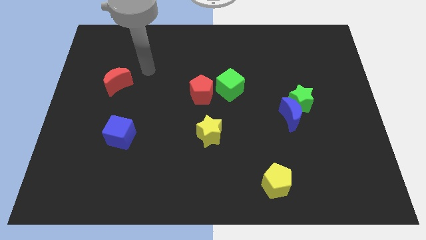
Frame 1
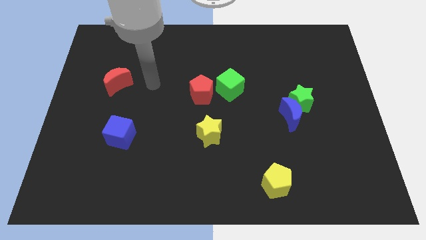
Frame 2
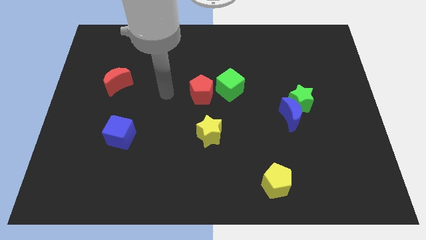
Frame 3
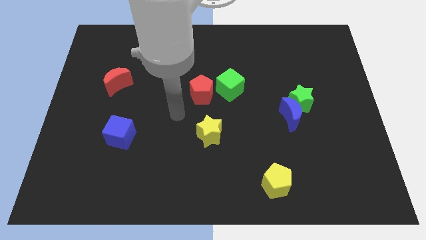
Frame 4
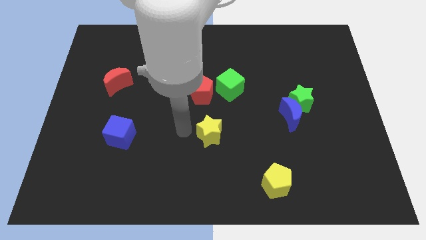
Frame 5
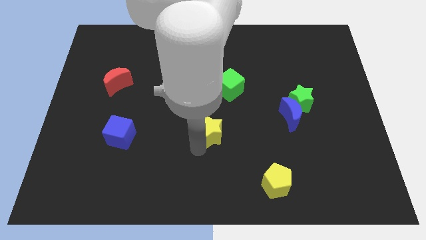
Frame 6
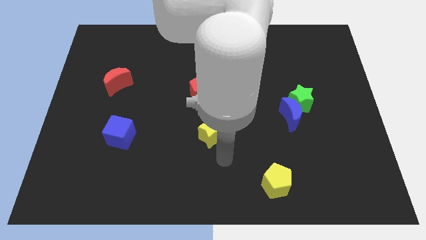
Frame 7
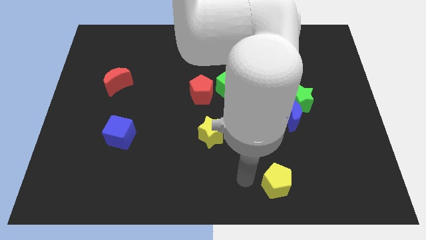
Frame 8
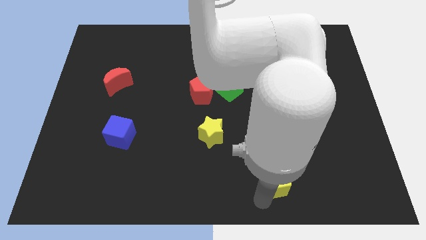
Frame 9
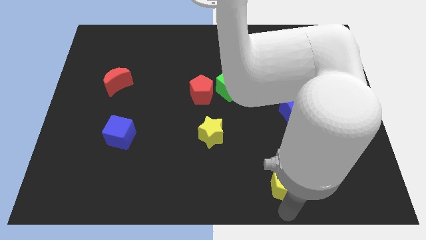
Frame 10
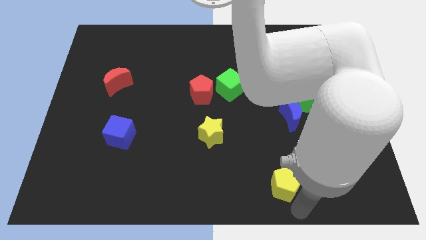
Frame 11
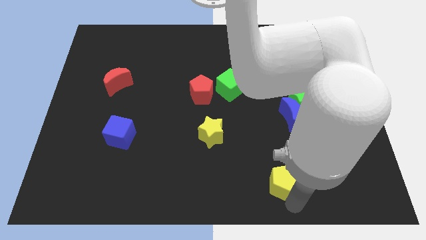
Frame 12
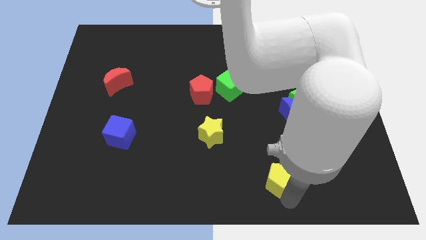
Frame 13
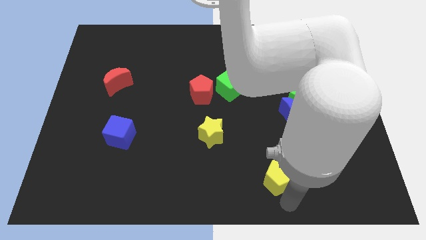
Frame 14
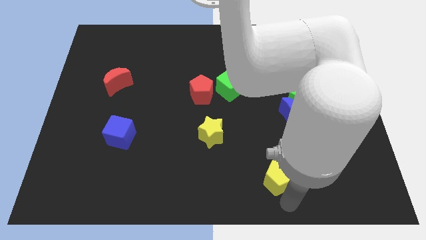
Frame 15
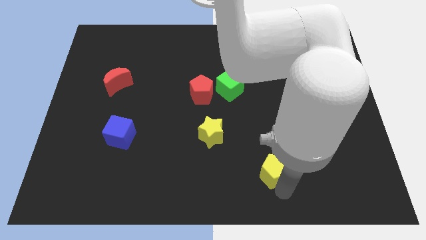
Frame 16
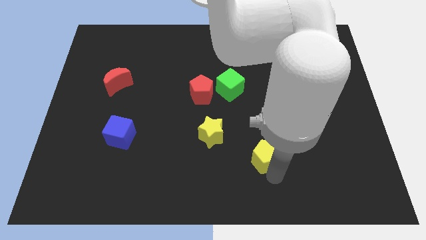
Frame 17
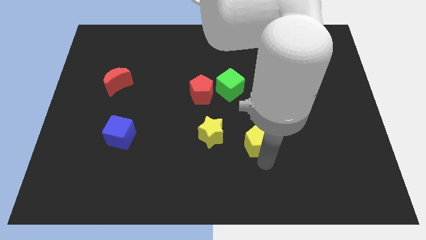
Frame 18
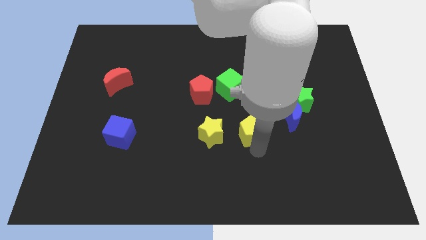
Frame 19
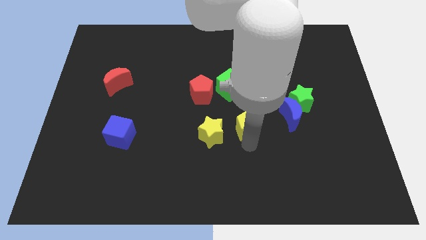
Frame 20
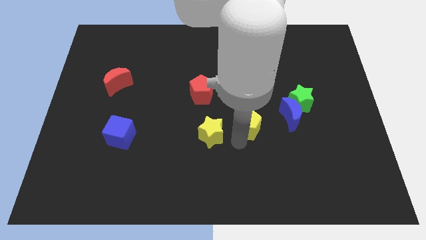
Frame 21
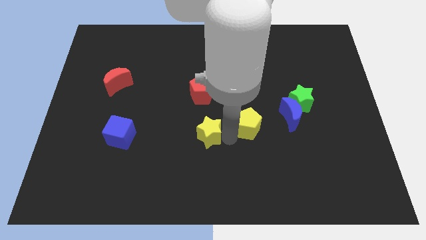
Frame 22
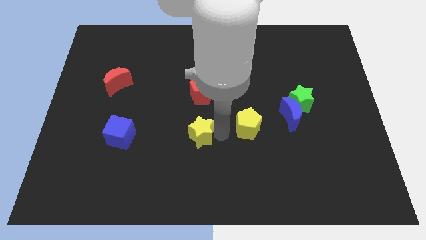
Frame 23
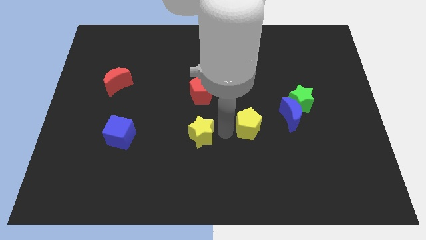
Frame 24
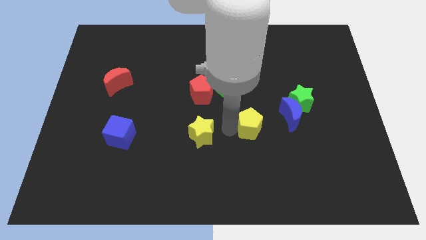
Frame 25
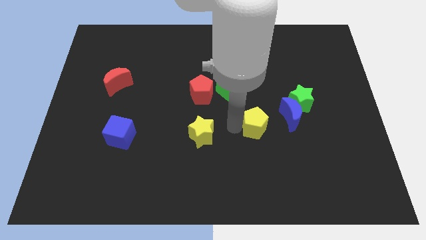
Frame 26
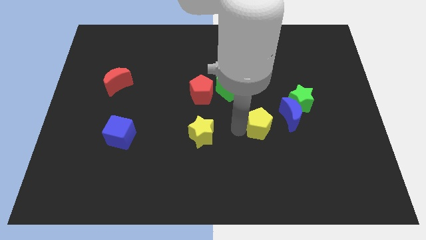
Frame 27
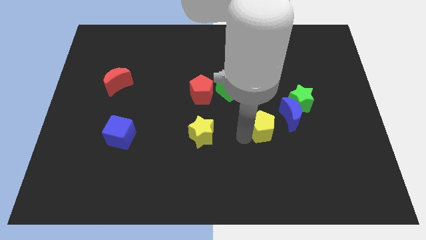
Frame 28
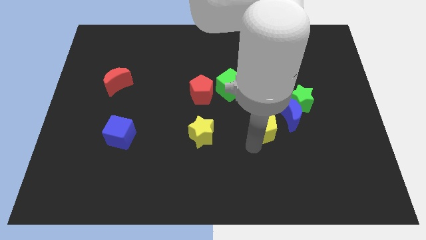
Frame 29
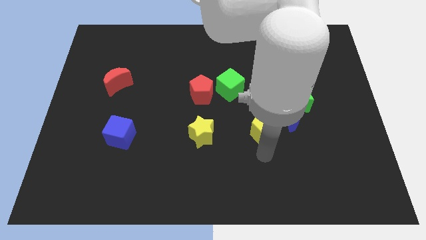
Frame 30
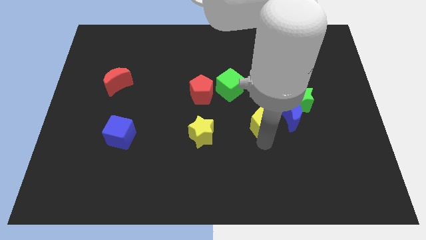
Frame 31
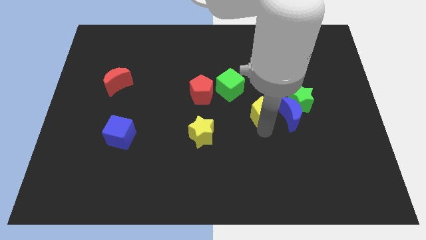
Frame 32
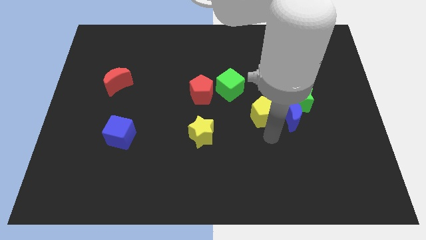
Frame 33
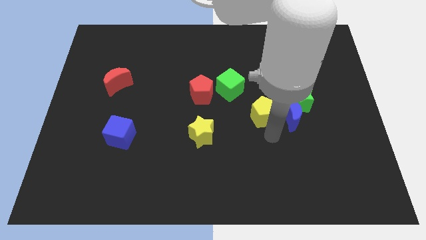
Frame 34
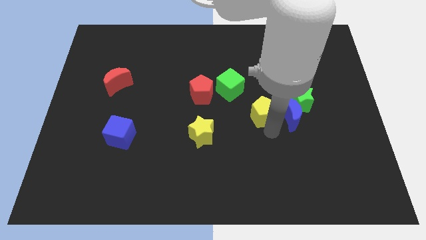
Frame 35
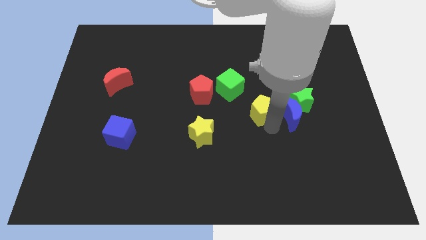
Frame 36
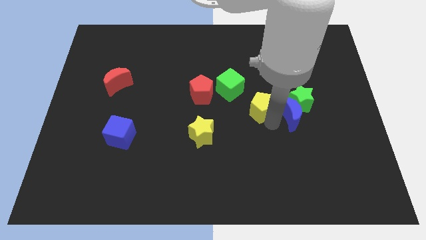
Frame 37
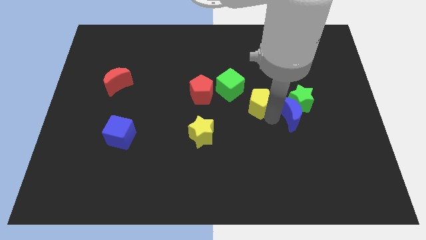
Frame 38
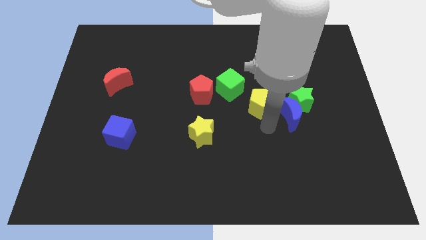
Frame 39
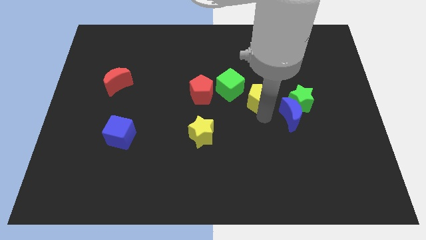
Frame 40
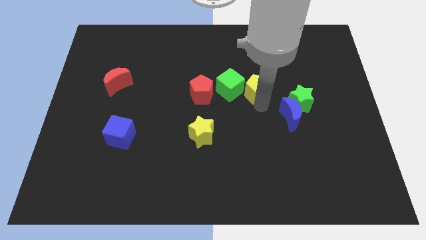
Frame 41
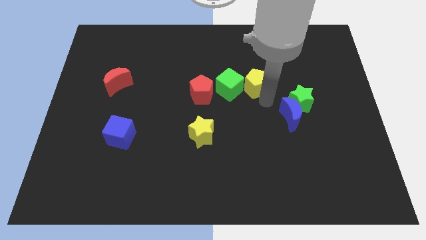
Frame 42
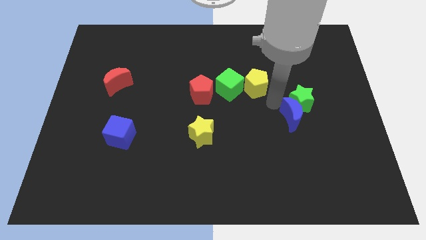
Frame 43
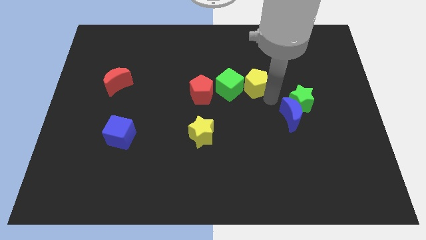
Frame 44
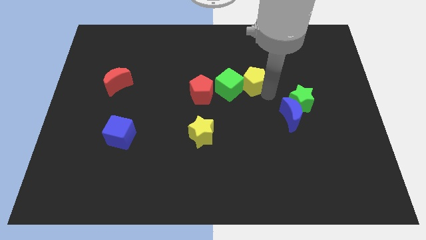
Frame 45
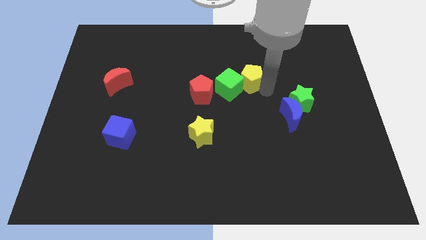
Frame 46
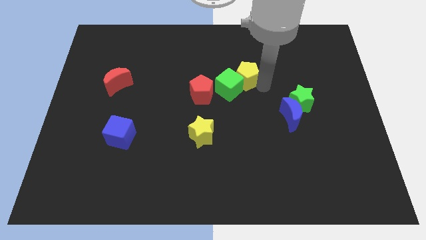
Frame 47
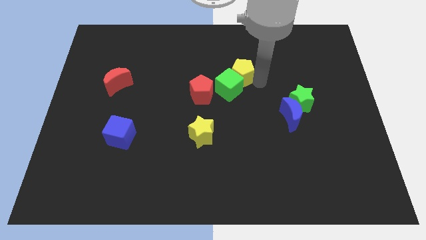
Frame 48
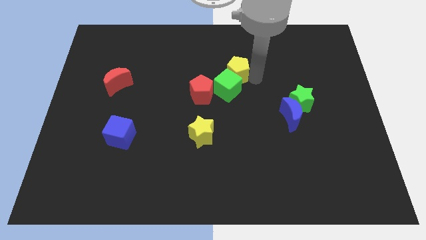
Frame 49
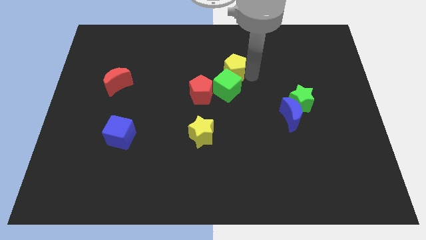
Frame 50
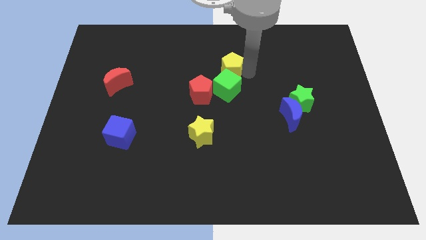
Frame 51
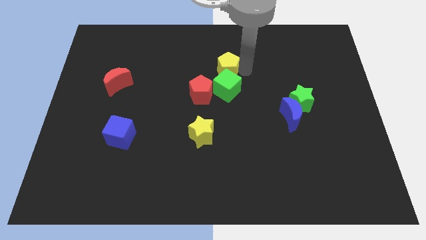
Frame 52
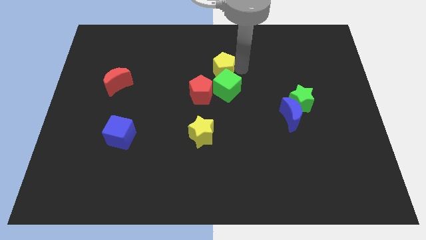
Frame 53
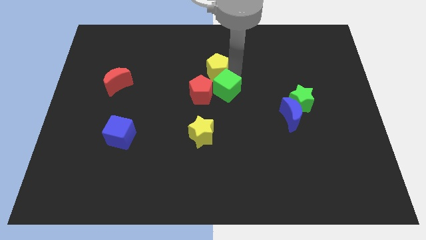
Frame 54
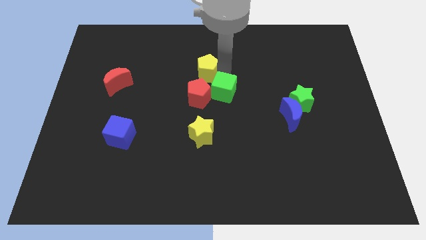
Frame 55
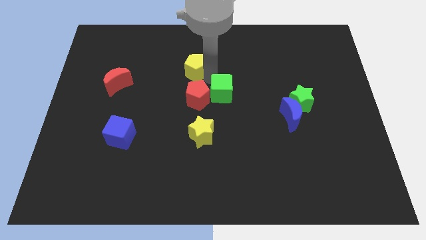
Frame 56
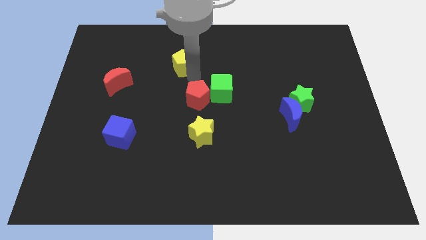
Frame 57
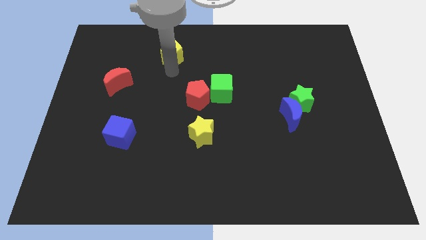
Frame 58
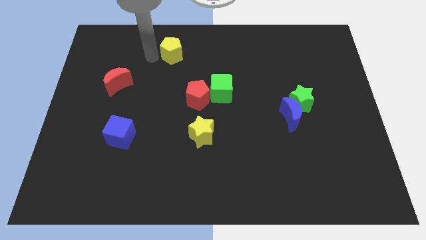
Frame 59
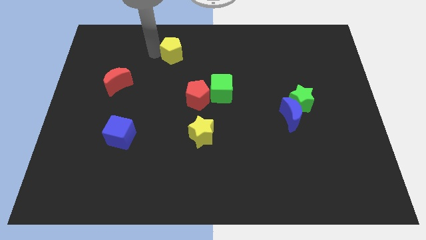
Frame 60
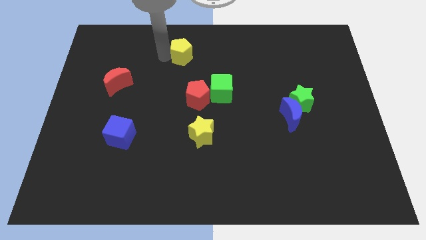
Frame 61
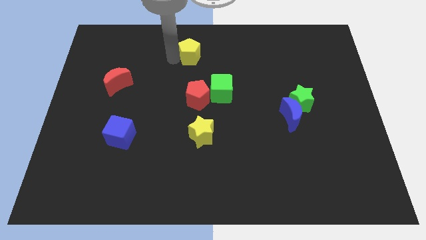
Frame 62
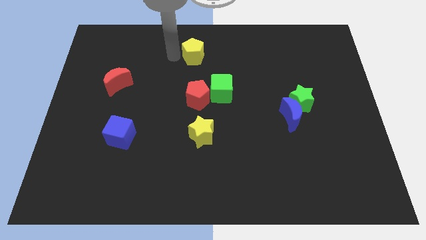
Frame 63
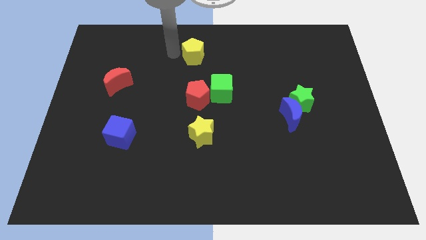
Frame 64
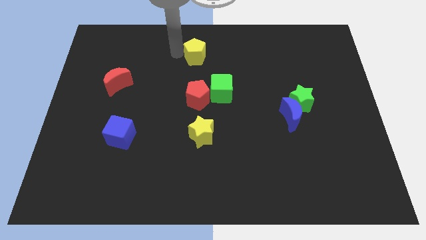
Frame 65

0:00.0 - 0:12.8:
slide the yellow pentagon to the towards your base

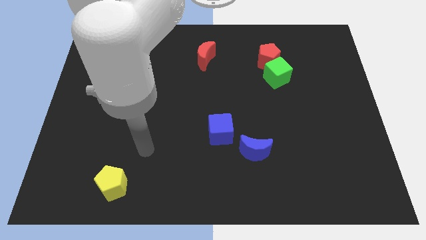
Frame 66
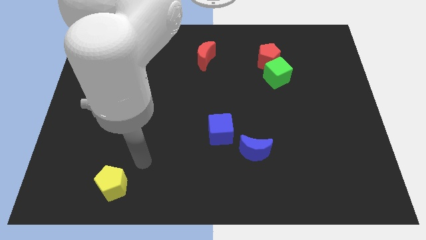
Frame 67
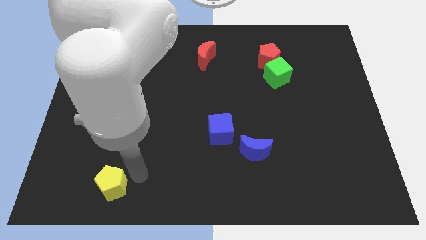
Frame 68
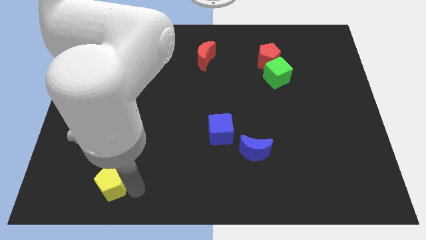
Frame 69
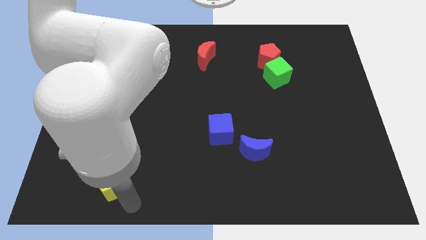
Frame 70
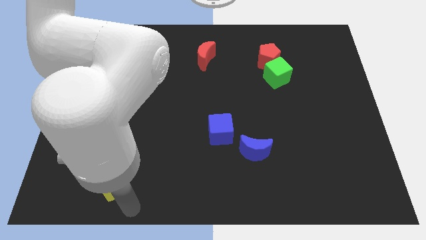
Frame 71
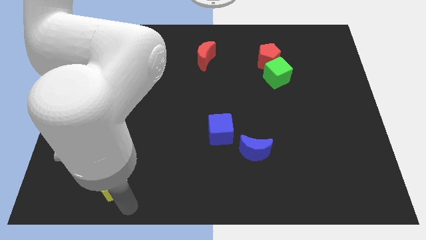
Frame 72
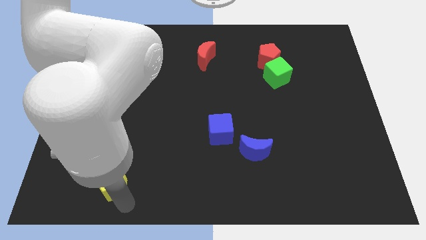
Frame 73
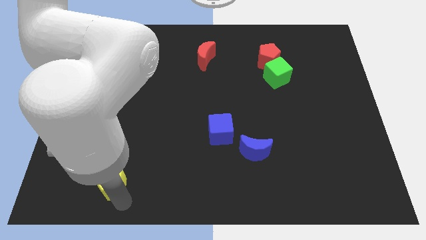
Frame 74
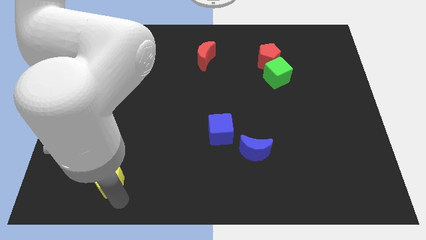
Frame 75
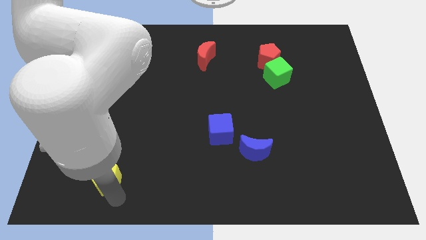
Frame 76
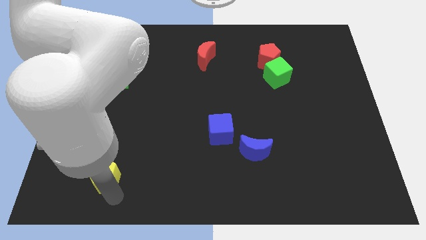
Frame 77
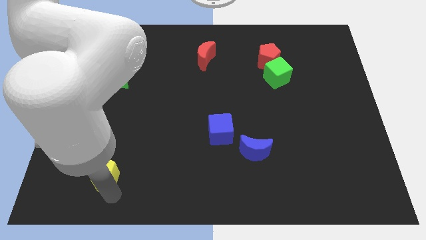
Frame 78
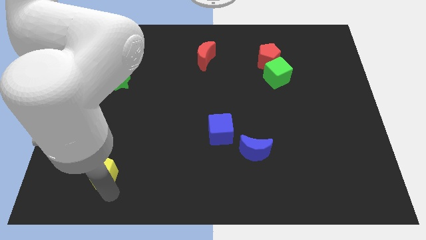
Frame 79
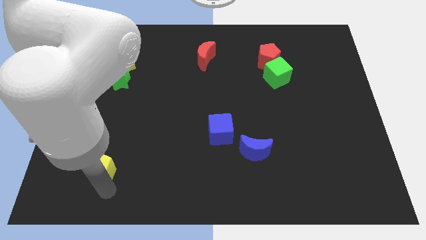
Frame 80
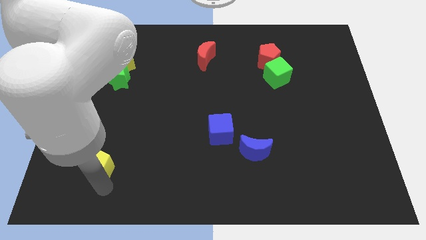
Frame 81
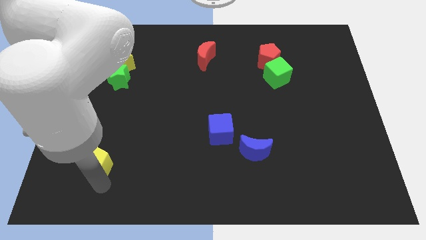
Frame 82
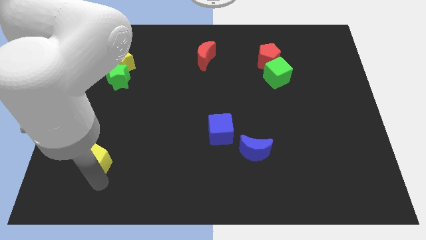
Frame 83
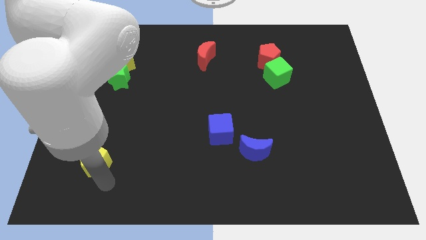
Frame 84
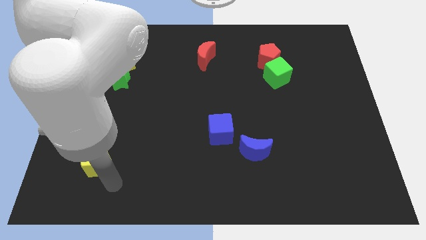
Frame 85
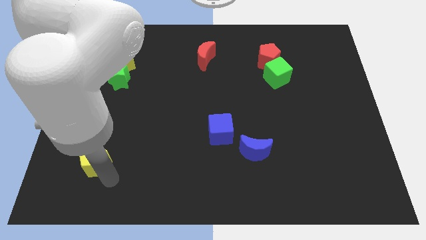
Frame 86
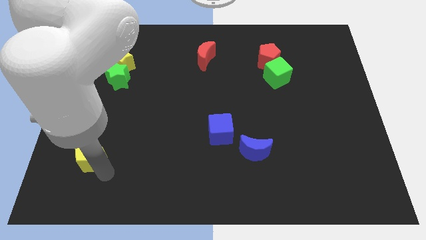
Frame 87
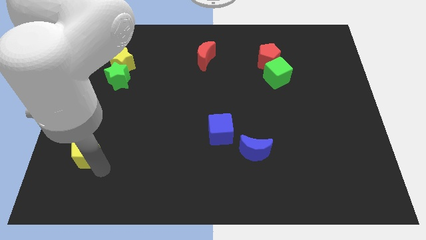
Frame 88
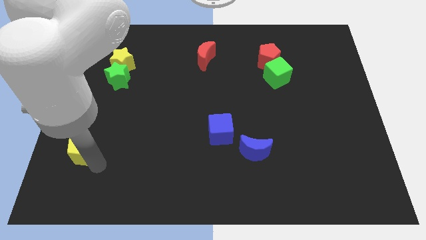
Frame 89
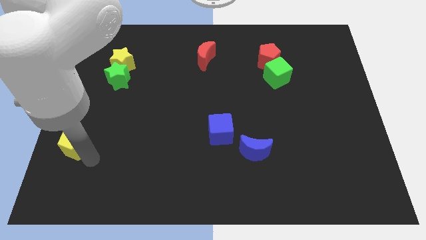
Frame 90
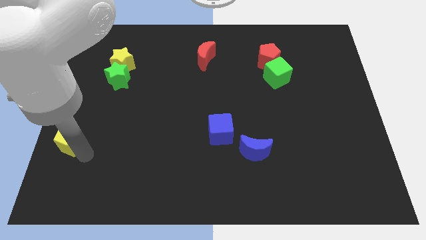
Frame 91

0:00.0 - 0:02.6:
put the yellow pentagon to the left side of the board
